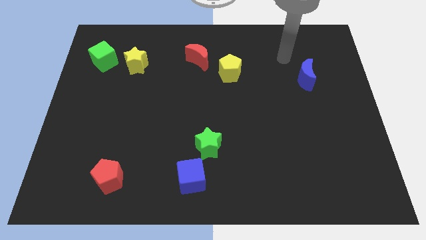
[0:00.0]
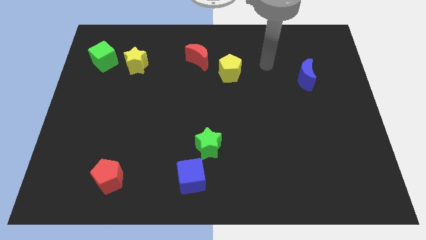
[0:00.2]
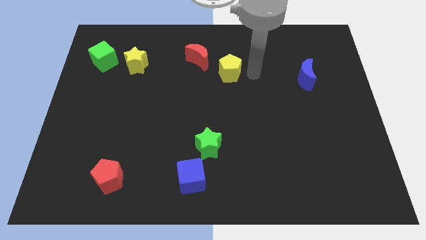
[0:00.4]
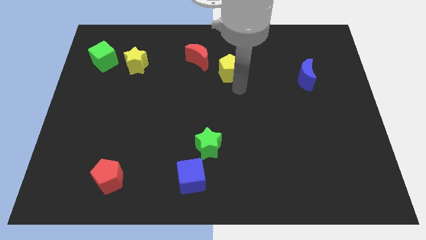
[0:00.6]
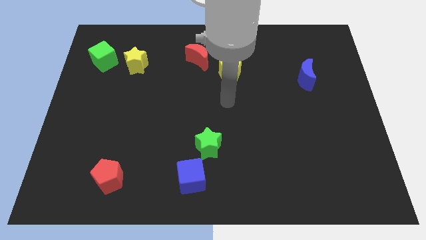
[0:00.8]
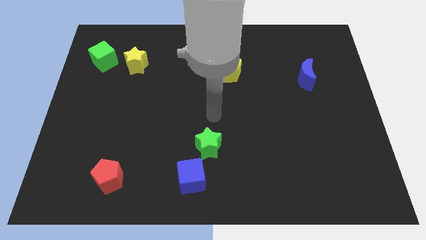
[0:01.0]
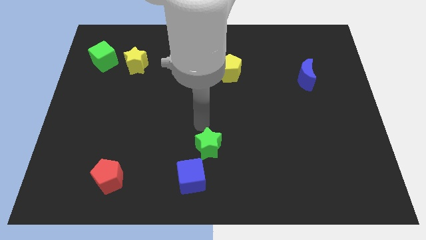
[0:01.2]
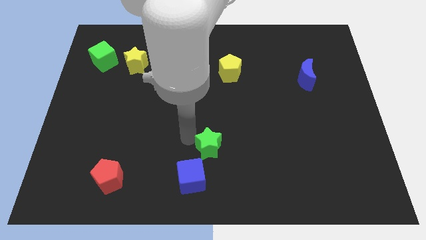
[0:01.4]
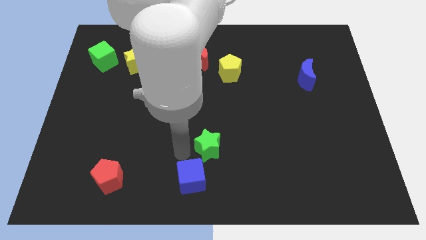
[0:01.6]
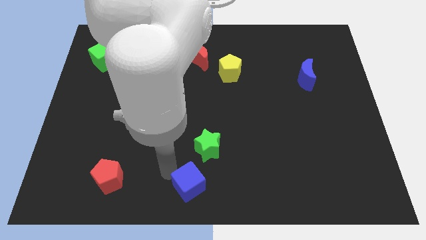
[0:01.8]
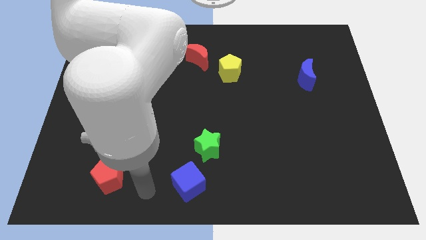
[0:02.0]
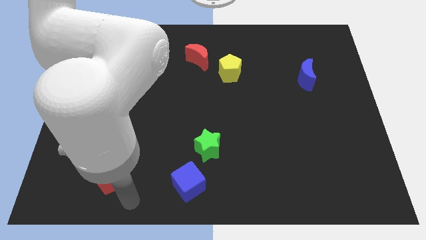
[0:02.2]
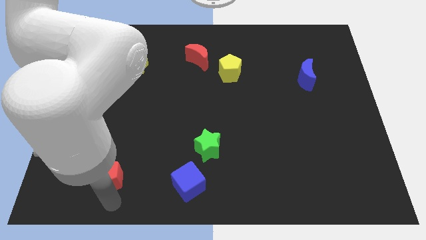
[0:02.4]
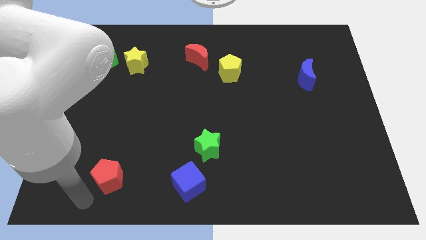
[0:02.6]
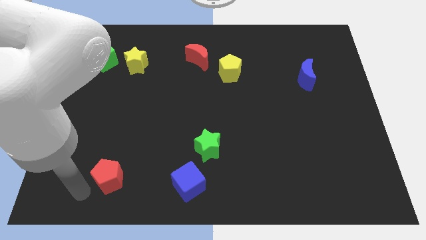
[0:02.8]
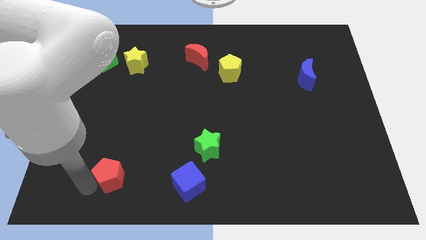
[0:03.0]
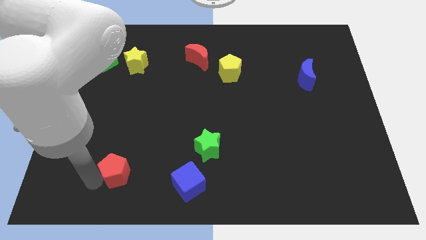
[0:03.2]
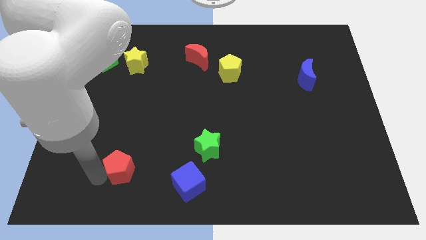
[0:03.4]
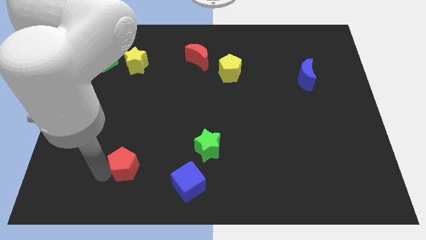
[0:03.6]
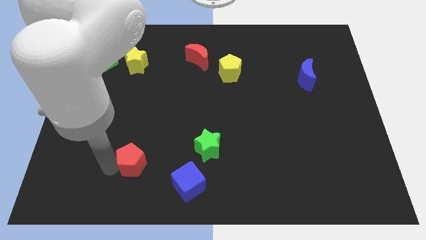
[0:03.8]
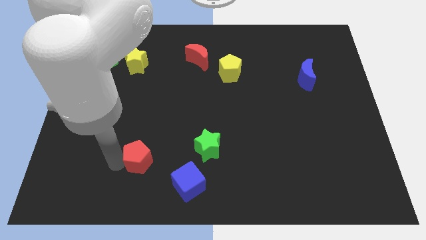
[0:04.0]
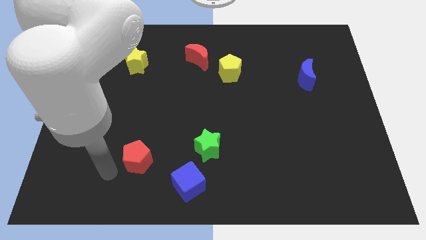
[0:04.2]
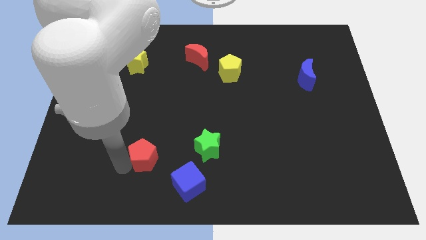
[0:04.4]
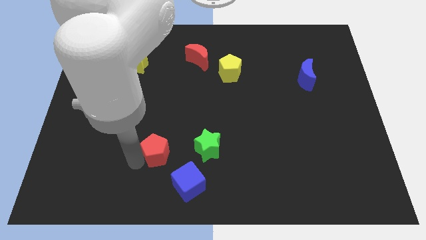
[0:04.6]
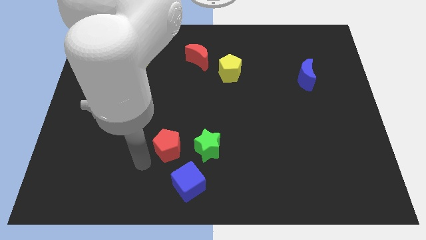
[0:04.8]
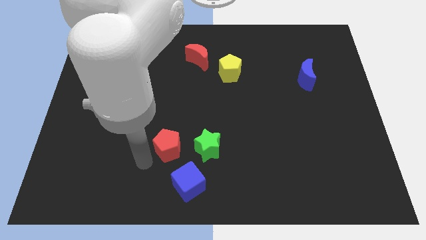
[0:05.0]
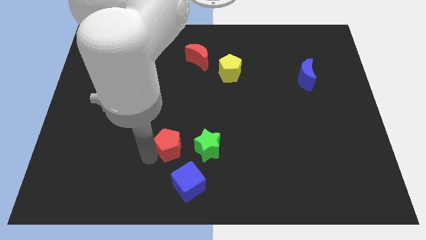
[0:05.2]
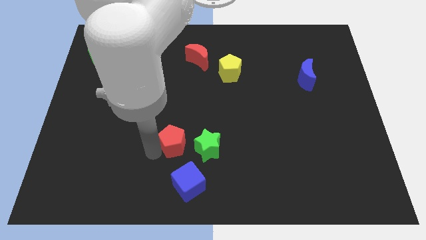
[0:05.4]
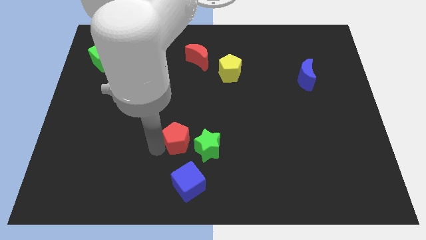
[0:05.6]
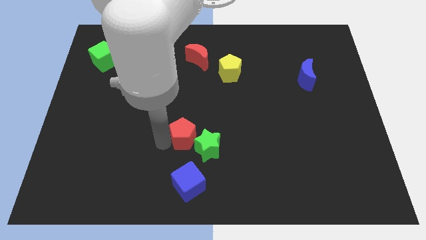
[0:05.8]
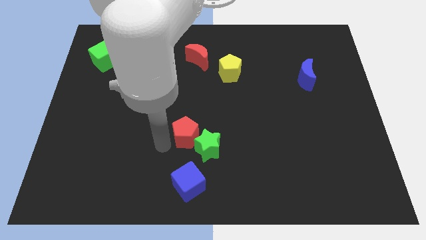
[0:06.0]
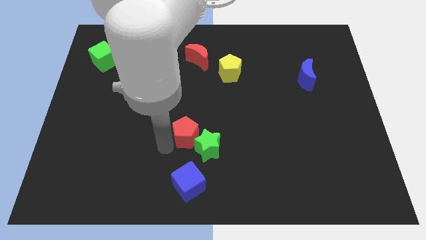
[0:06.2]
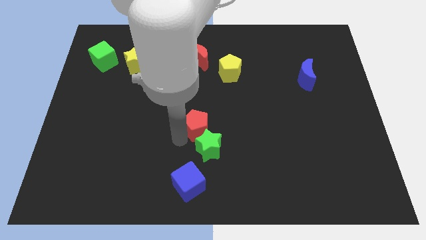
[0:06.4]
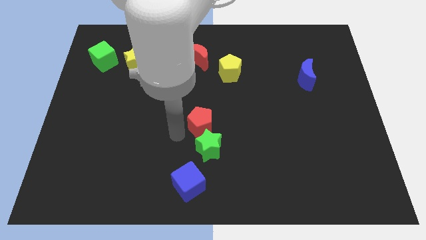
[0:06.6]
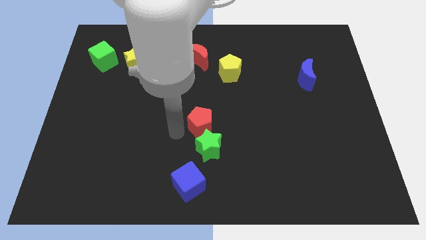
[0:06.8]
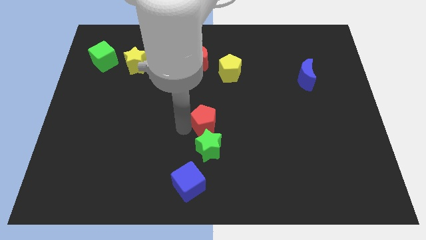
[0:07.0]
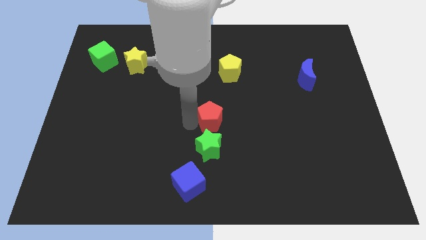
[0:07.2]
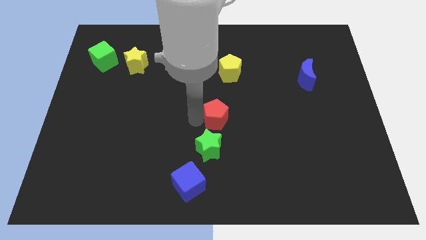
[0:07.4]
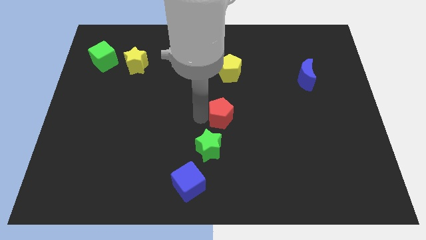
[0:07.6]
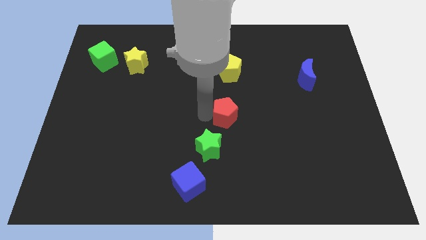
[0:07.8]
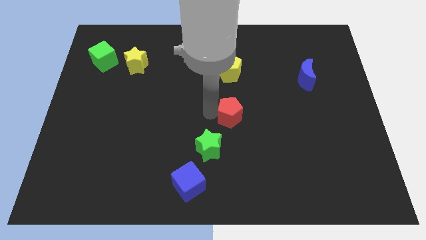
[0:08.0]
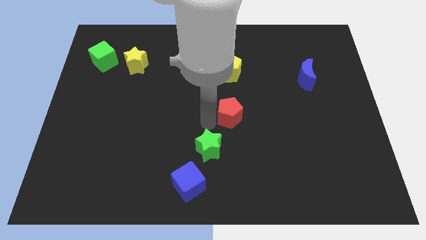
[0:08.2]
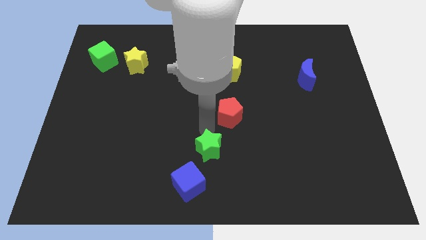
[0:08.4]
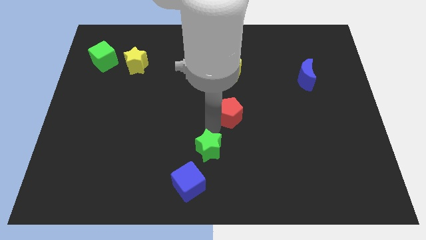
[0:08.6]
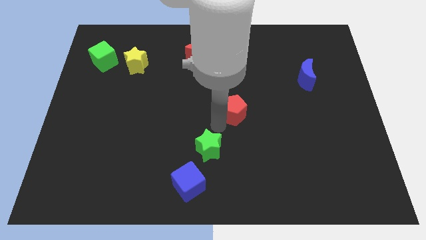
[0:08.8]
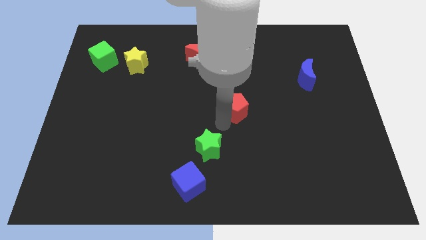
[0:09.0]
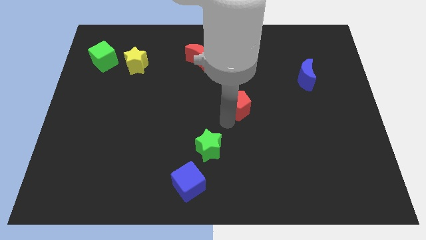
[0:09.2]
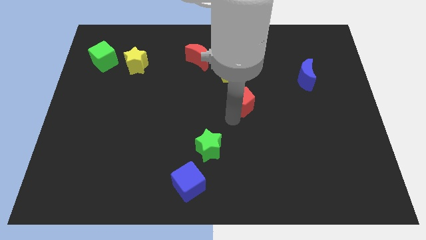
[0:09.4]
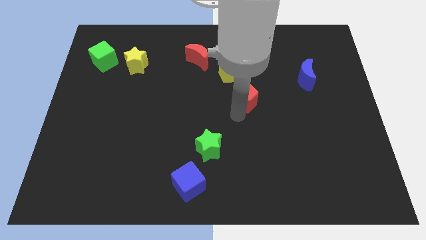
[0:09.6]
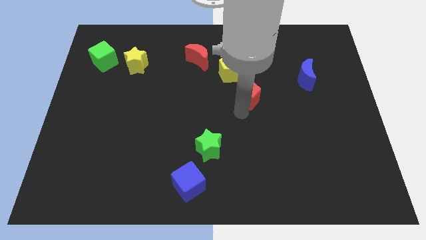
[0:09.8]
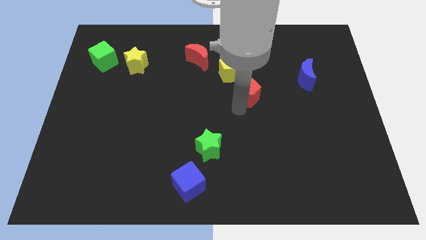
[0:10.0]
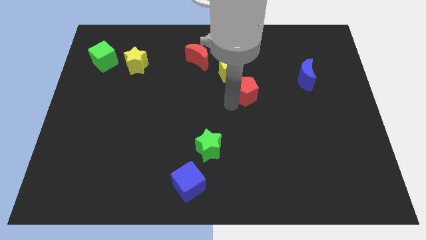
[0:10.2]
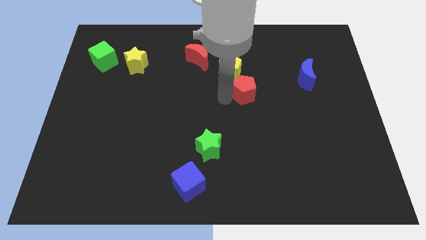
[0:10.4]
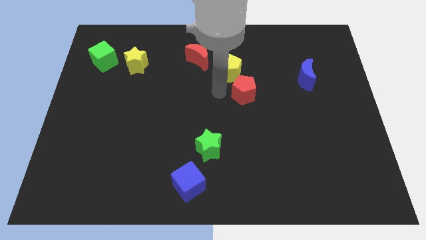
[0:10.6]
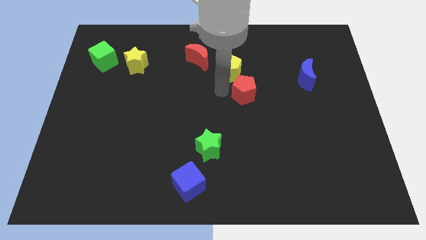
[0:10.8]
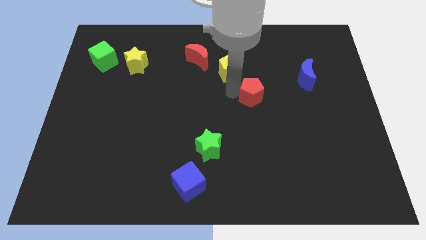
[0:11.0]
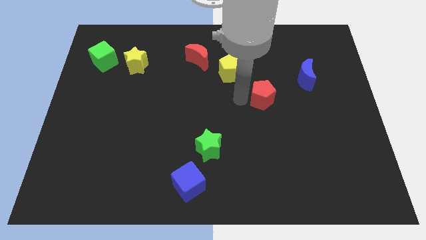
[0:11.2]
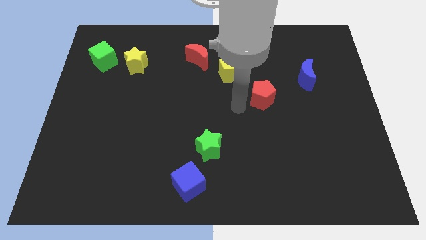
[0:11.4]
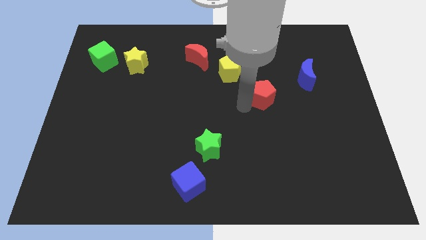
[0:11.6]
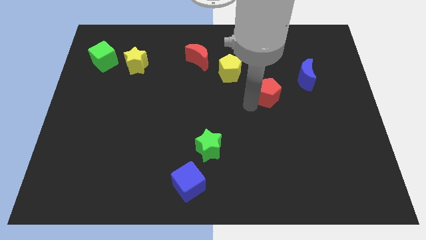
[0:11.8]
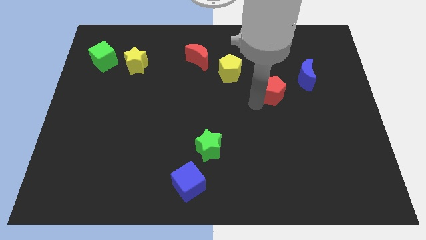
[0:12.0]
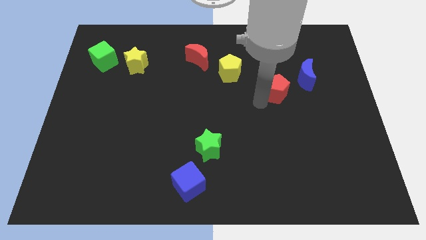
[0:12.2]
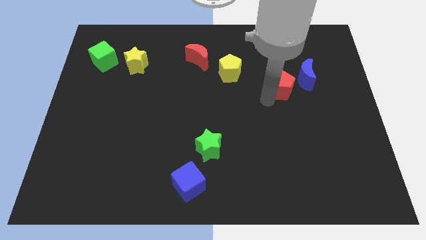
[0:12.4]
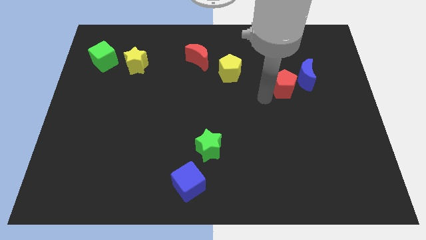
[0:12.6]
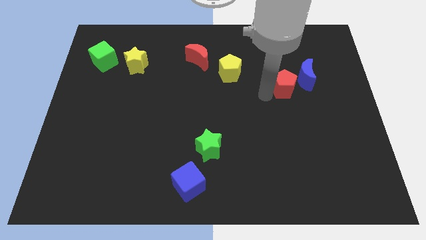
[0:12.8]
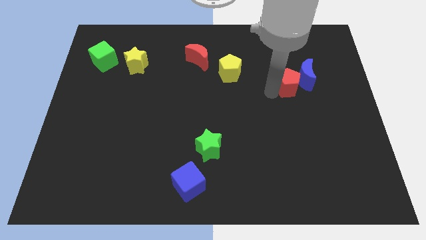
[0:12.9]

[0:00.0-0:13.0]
move the red pentagon to the blue moon
